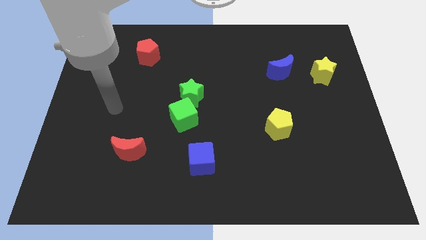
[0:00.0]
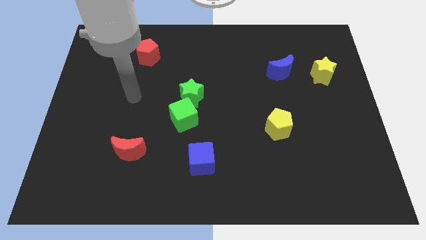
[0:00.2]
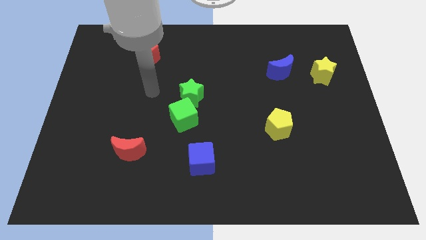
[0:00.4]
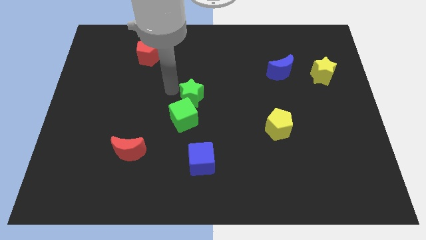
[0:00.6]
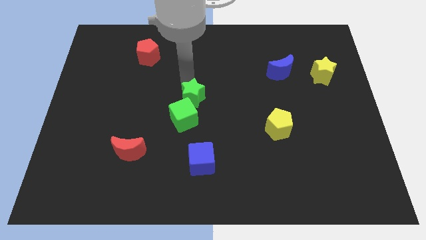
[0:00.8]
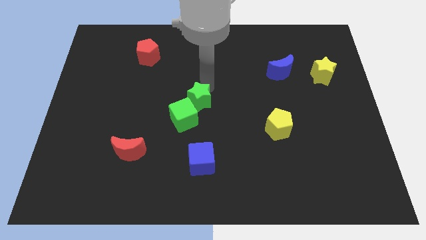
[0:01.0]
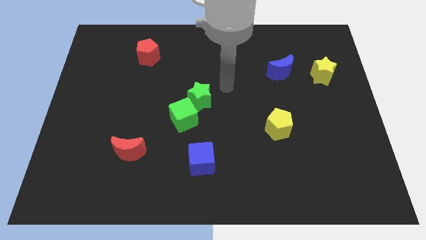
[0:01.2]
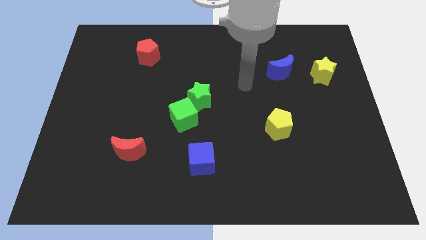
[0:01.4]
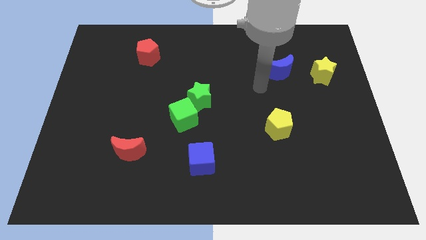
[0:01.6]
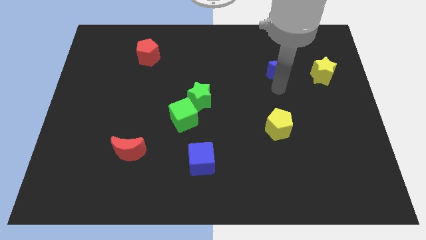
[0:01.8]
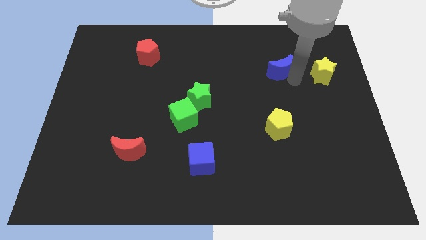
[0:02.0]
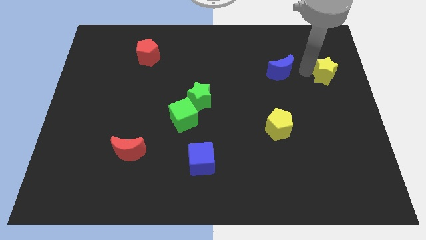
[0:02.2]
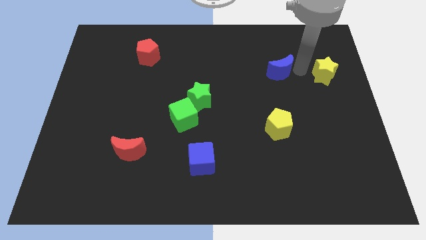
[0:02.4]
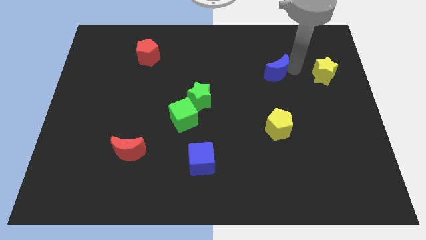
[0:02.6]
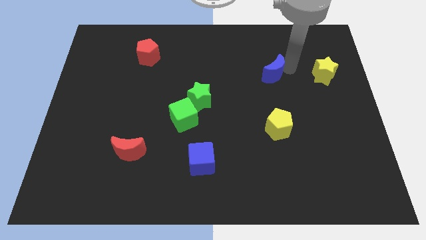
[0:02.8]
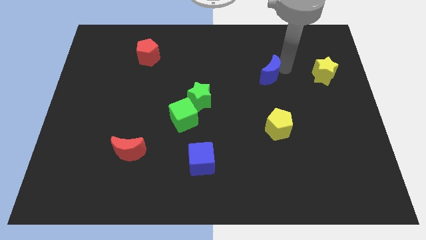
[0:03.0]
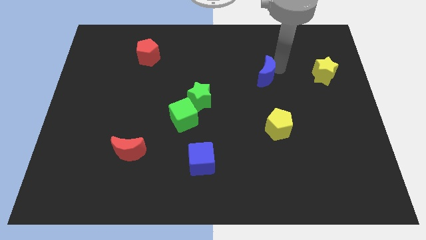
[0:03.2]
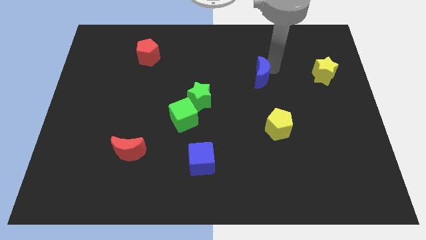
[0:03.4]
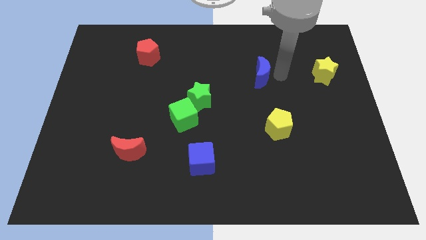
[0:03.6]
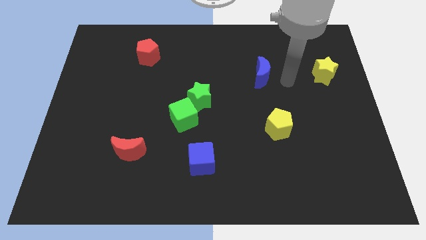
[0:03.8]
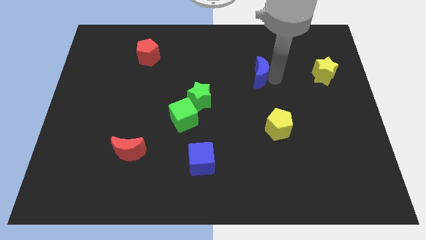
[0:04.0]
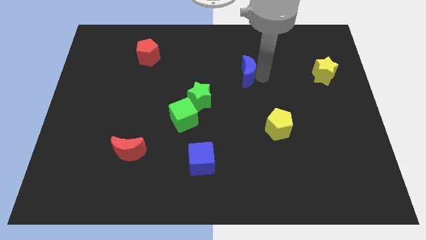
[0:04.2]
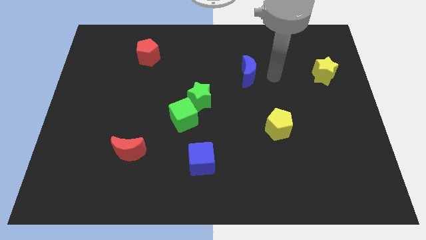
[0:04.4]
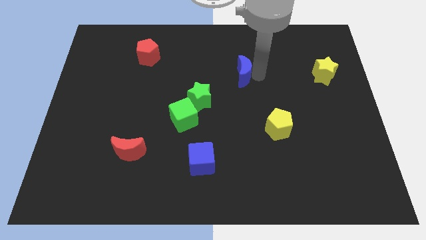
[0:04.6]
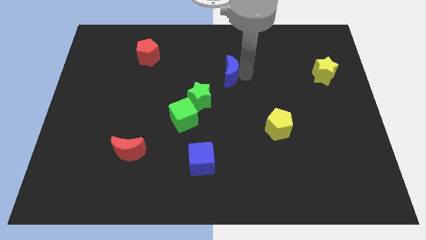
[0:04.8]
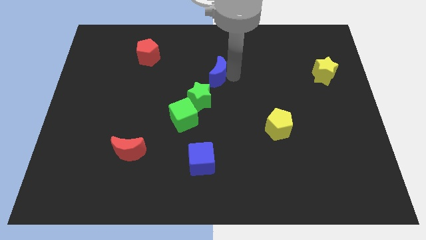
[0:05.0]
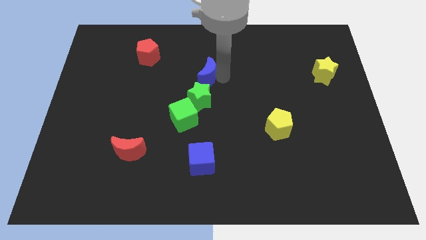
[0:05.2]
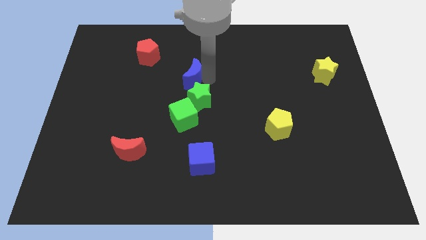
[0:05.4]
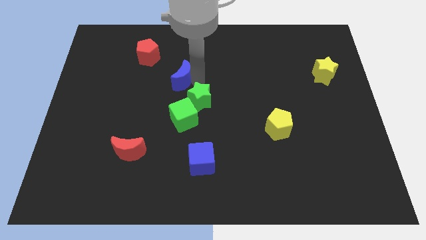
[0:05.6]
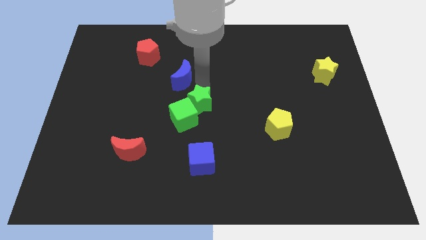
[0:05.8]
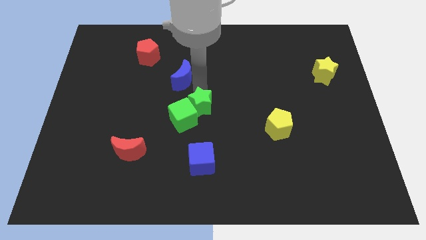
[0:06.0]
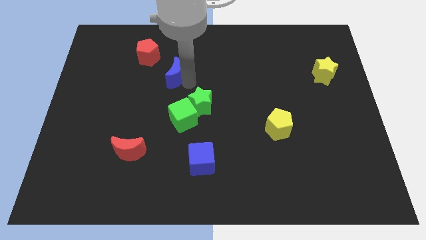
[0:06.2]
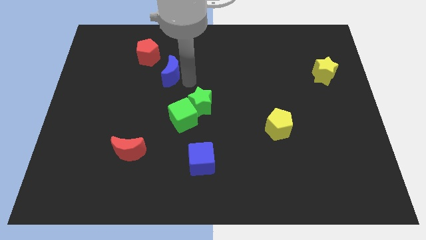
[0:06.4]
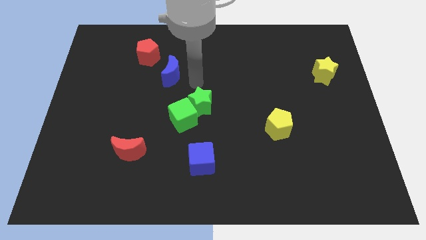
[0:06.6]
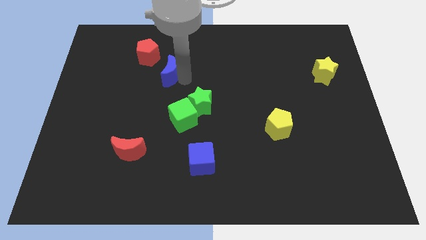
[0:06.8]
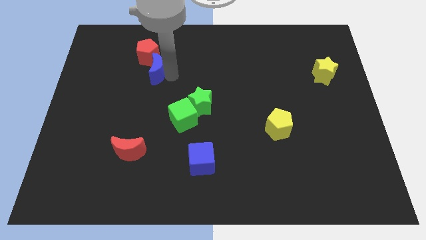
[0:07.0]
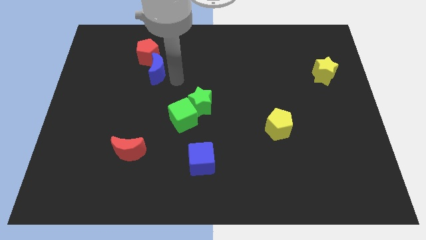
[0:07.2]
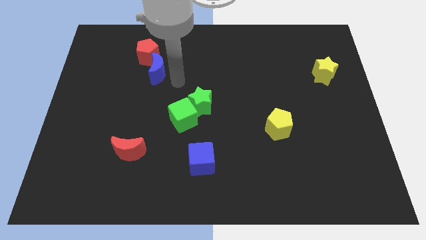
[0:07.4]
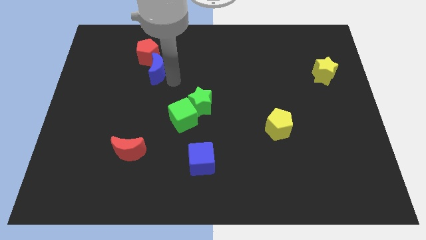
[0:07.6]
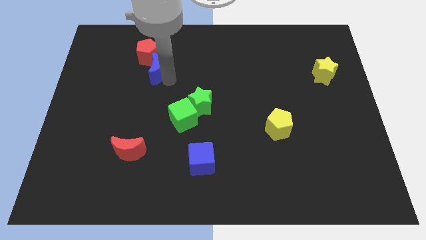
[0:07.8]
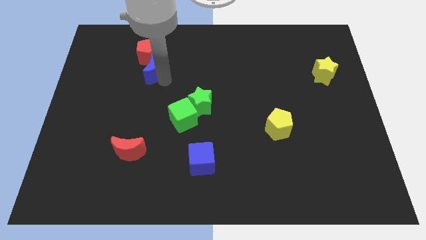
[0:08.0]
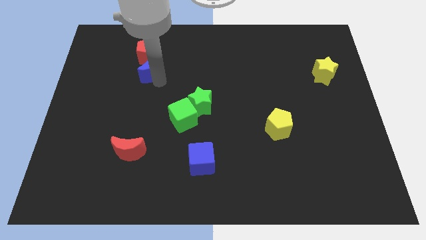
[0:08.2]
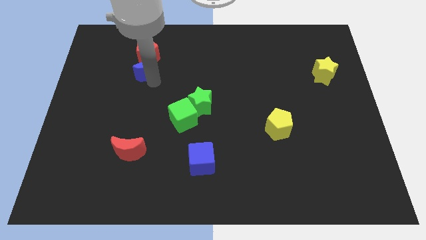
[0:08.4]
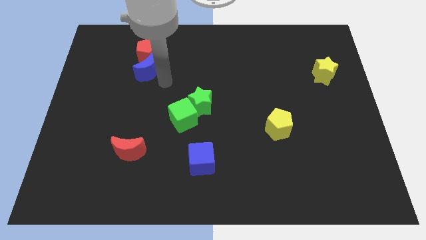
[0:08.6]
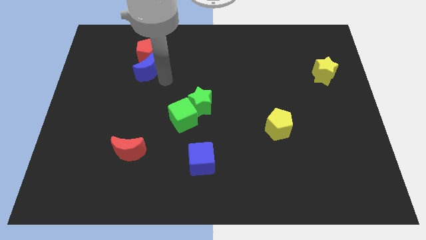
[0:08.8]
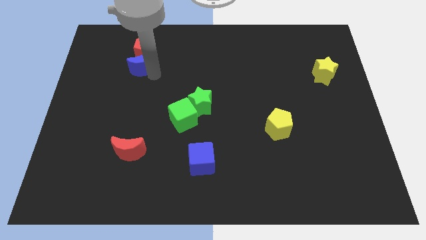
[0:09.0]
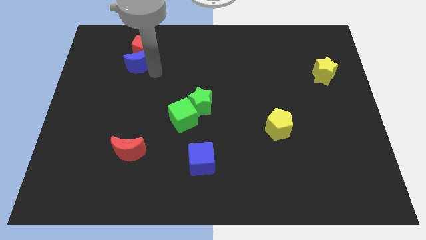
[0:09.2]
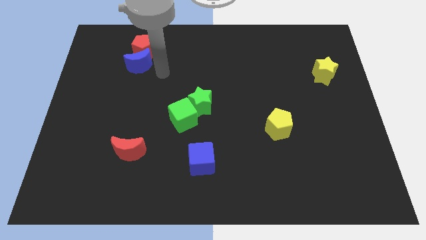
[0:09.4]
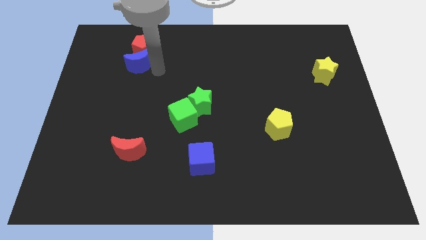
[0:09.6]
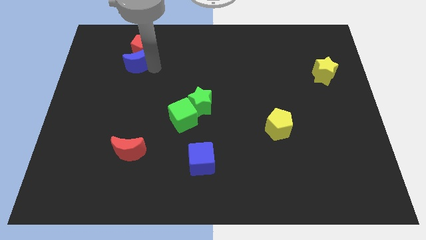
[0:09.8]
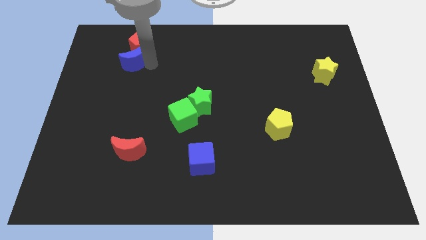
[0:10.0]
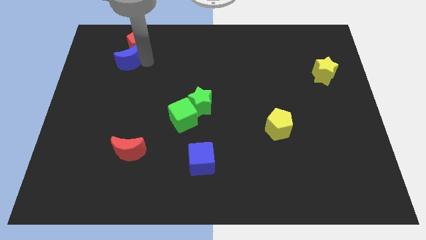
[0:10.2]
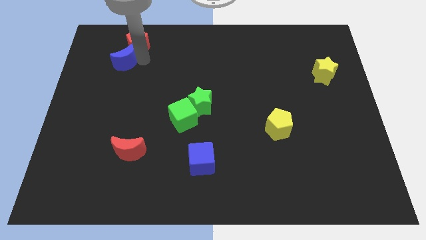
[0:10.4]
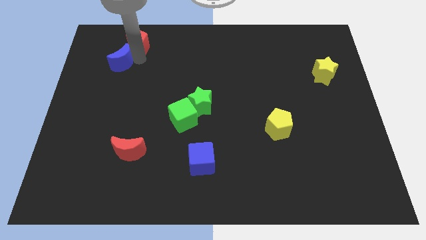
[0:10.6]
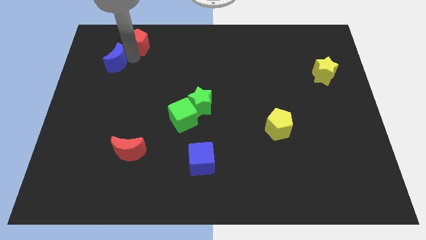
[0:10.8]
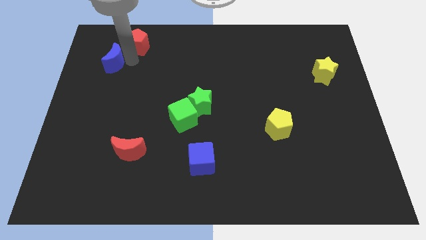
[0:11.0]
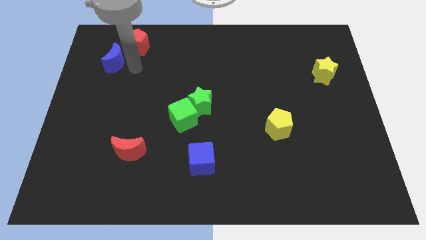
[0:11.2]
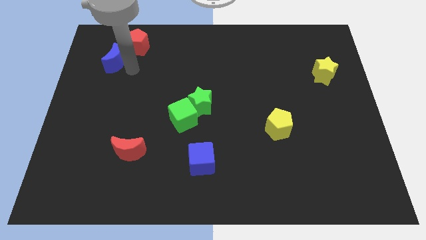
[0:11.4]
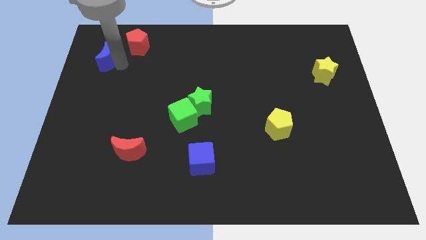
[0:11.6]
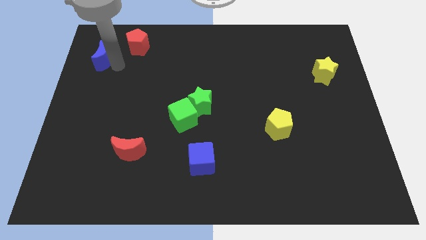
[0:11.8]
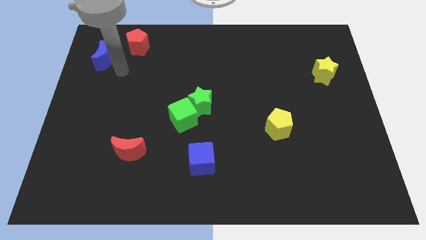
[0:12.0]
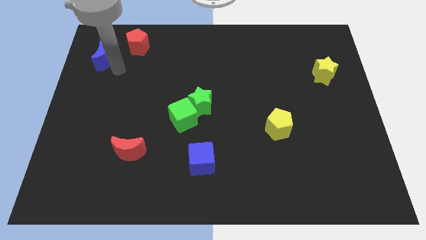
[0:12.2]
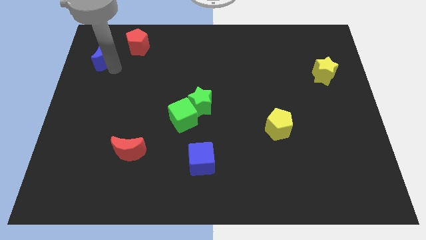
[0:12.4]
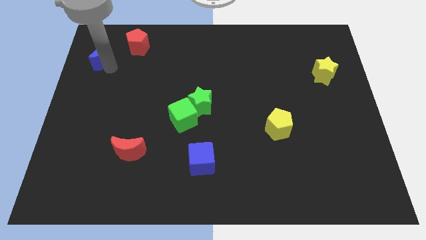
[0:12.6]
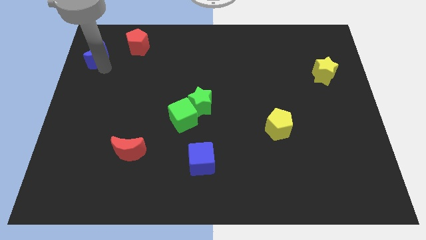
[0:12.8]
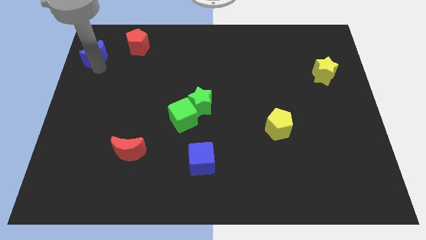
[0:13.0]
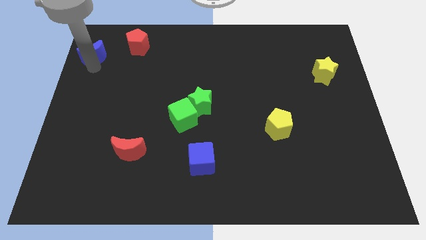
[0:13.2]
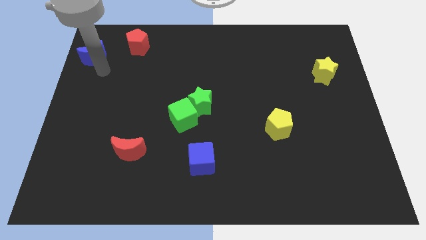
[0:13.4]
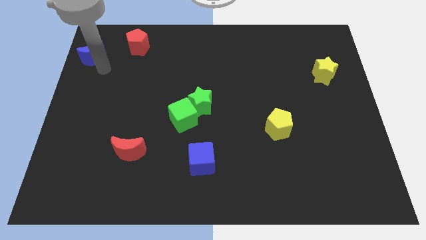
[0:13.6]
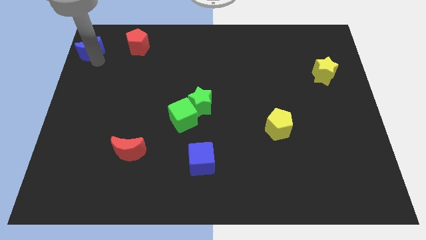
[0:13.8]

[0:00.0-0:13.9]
push the blue moon to the top left
